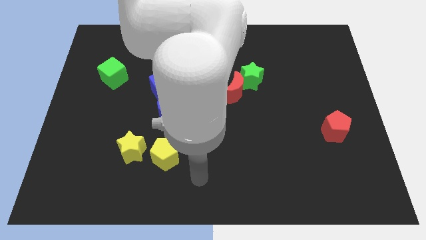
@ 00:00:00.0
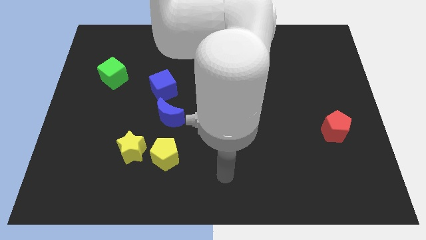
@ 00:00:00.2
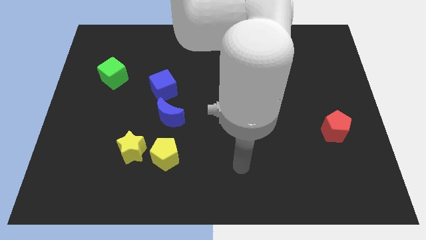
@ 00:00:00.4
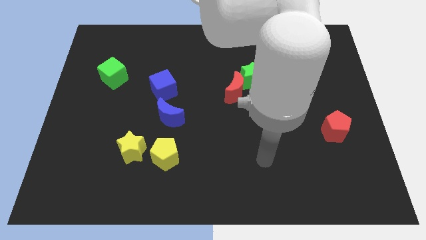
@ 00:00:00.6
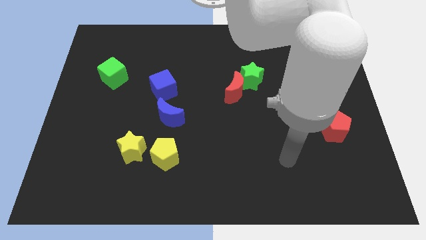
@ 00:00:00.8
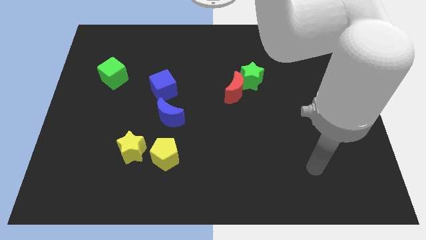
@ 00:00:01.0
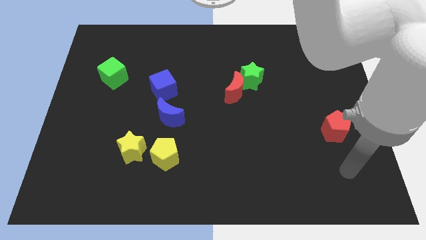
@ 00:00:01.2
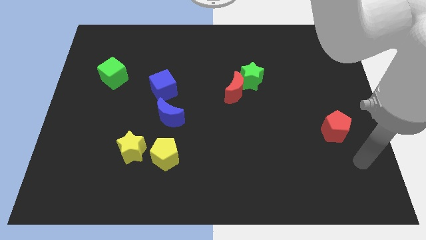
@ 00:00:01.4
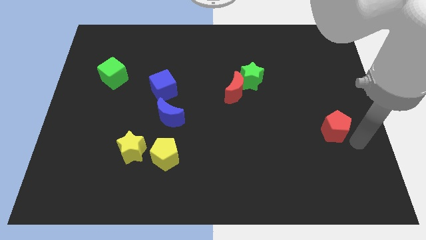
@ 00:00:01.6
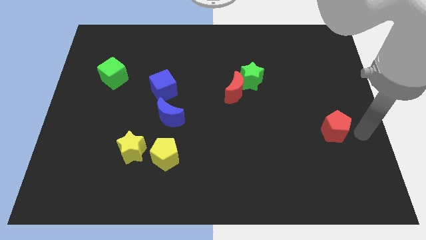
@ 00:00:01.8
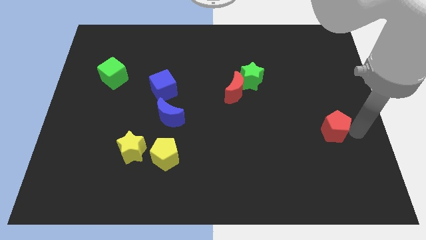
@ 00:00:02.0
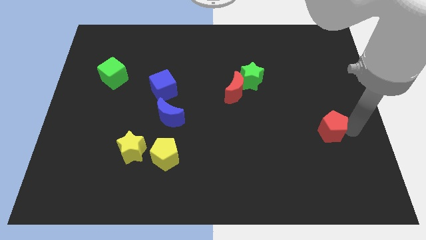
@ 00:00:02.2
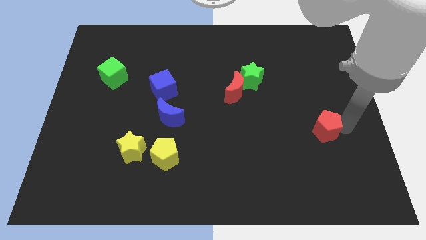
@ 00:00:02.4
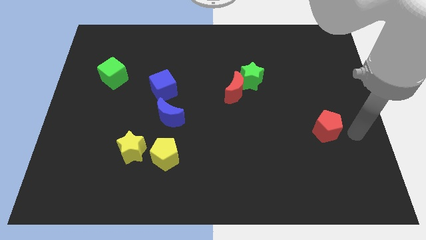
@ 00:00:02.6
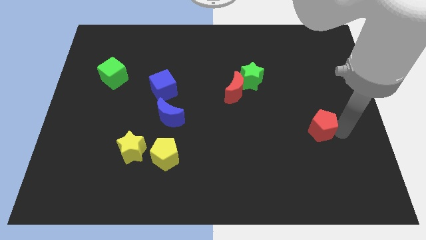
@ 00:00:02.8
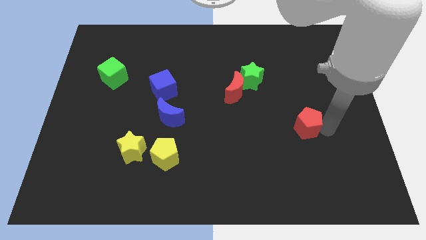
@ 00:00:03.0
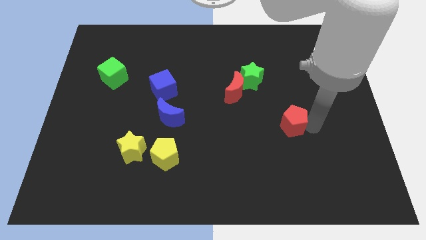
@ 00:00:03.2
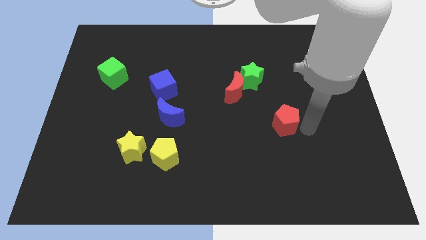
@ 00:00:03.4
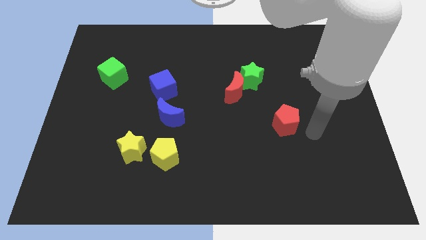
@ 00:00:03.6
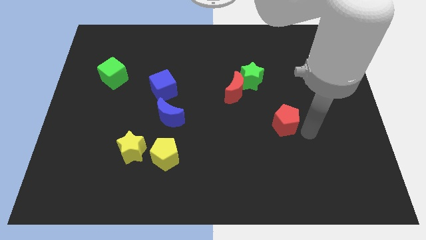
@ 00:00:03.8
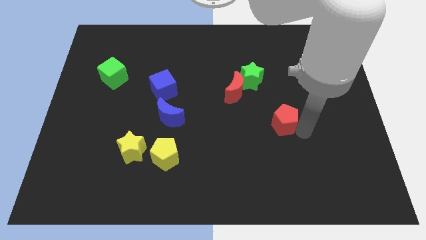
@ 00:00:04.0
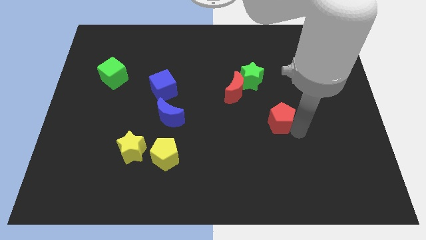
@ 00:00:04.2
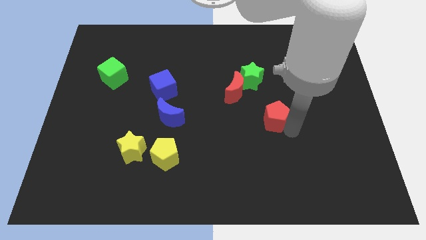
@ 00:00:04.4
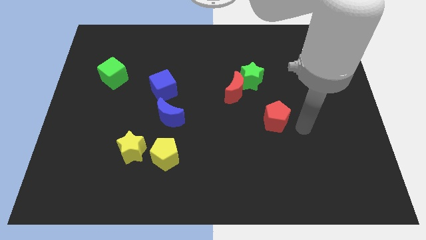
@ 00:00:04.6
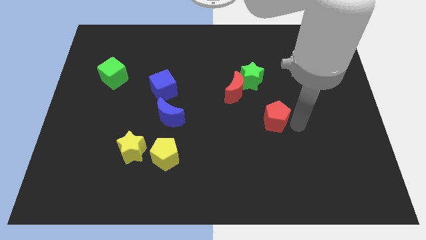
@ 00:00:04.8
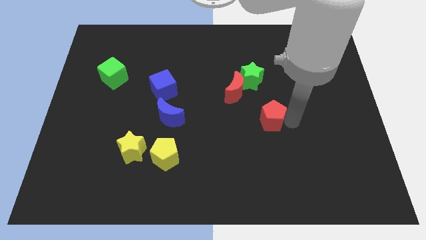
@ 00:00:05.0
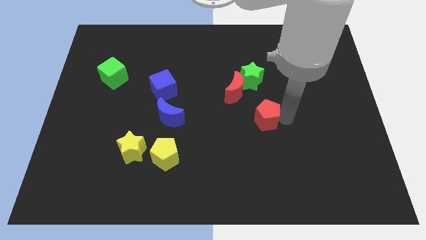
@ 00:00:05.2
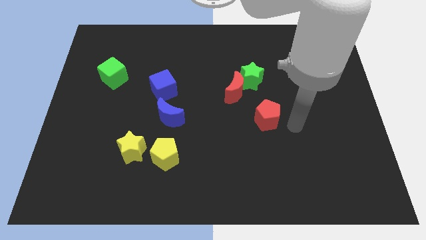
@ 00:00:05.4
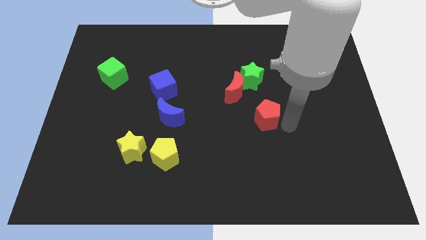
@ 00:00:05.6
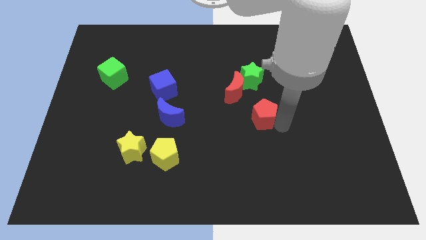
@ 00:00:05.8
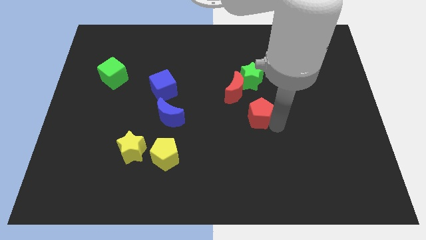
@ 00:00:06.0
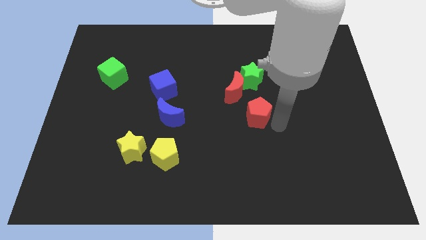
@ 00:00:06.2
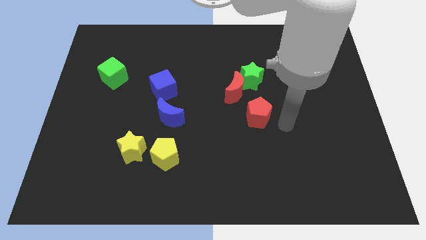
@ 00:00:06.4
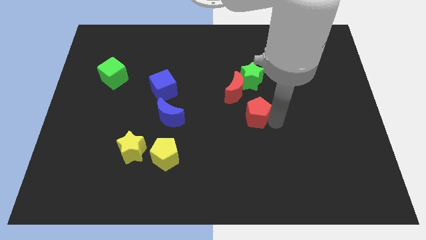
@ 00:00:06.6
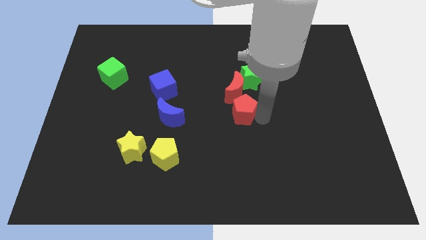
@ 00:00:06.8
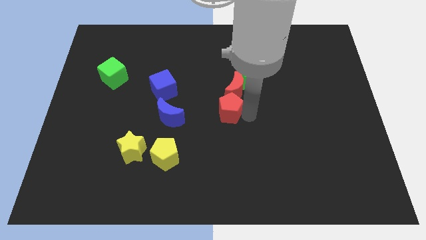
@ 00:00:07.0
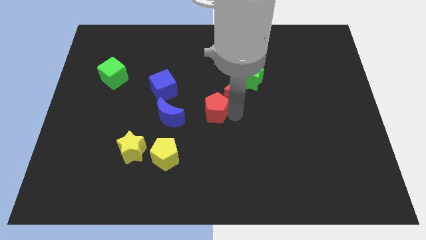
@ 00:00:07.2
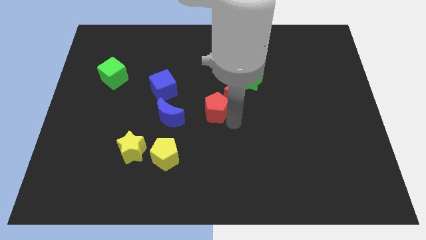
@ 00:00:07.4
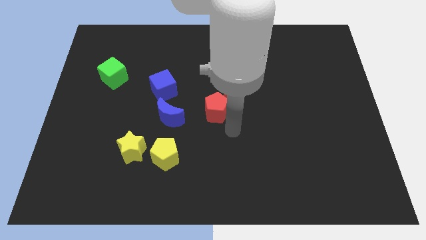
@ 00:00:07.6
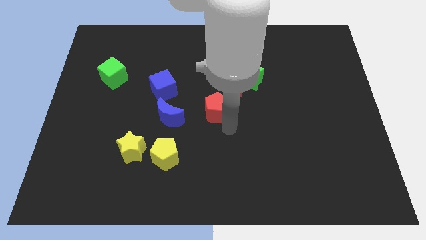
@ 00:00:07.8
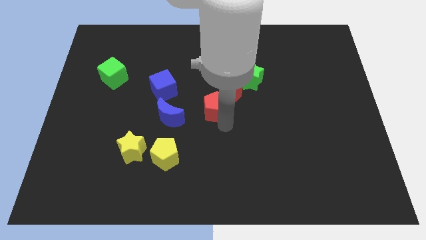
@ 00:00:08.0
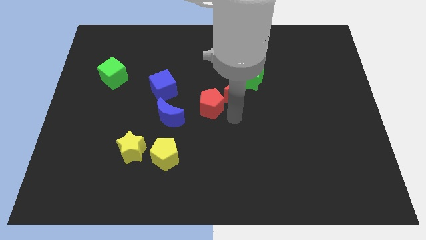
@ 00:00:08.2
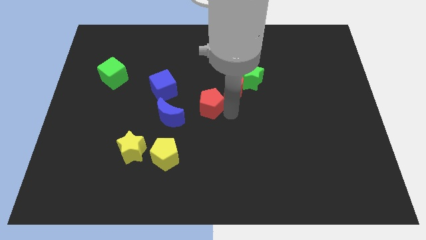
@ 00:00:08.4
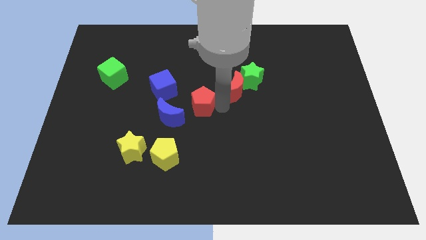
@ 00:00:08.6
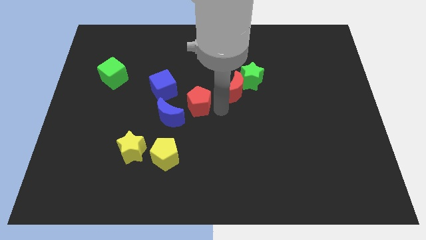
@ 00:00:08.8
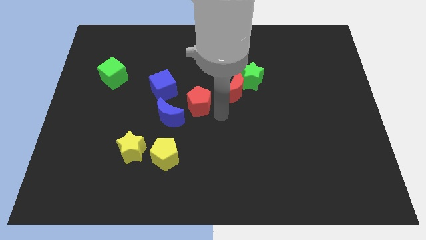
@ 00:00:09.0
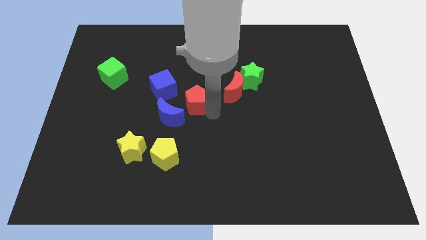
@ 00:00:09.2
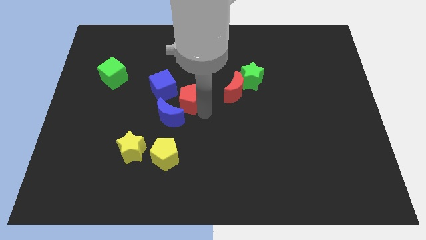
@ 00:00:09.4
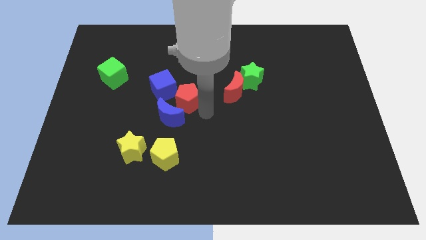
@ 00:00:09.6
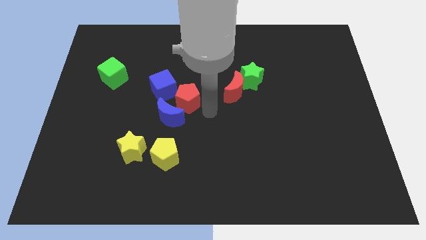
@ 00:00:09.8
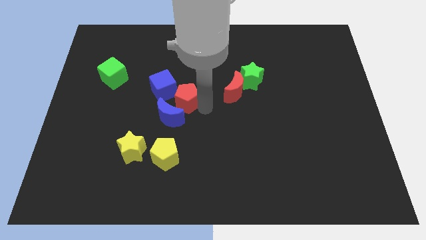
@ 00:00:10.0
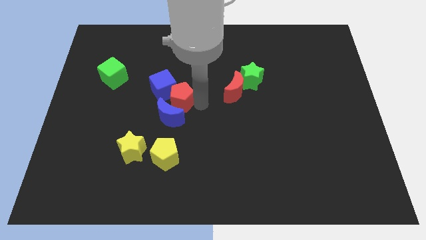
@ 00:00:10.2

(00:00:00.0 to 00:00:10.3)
push the red pentagon towards the blue cube

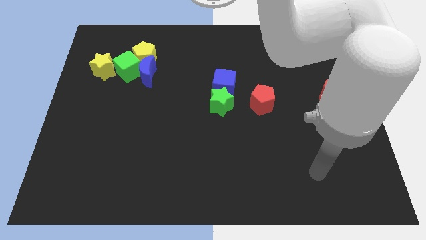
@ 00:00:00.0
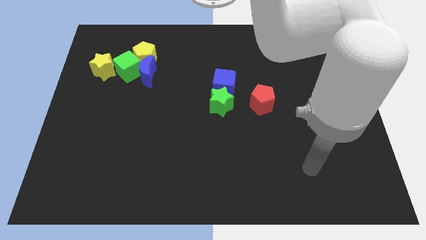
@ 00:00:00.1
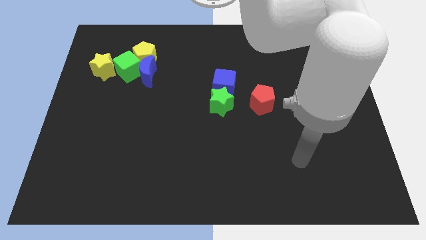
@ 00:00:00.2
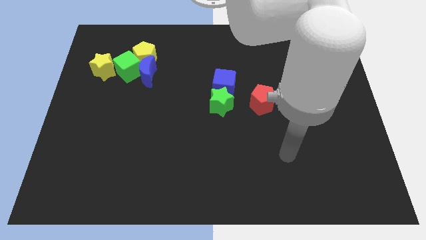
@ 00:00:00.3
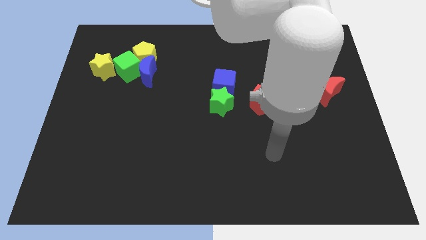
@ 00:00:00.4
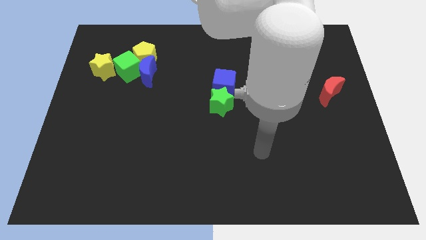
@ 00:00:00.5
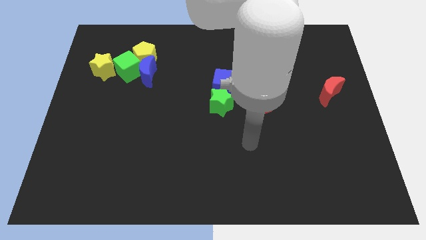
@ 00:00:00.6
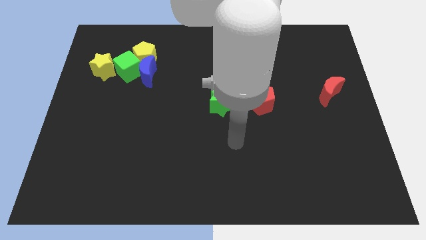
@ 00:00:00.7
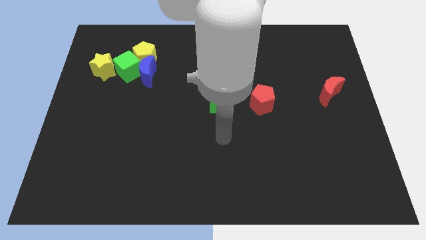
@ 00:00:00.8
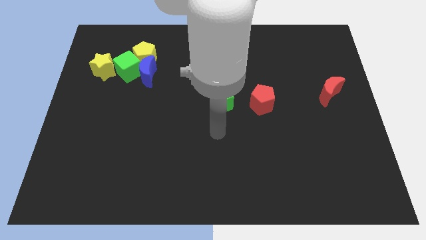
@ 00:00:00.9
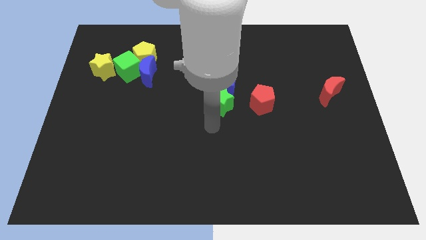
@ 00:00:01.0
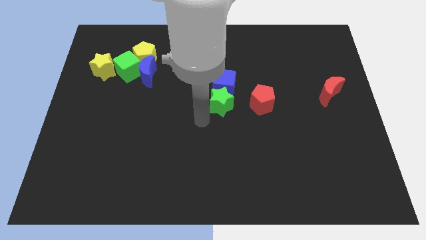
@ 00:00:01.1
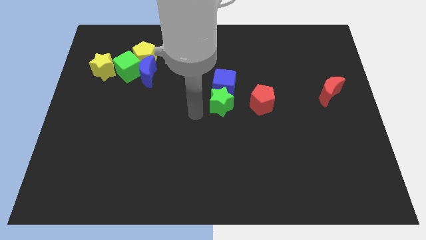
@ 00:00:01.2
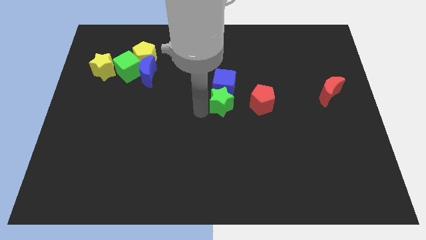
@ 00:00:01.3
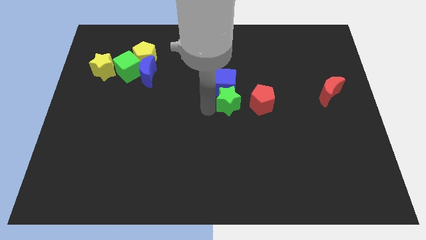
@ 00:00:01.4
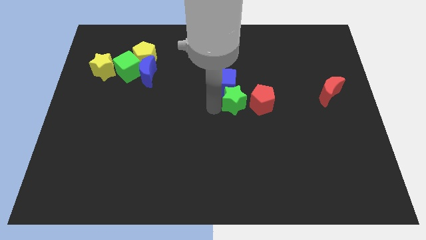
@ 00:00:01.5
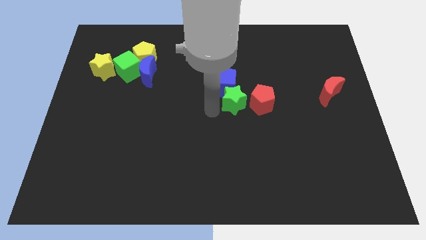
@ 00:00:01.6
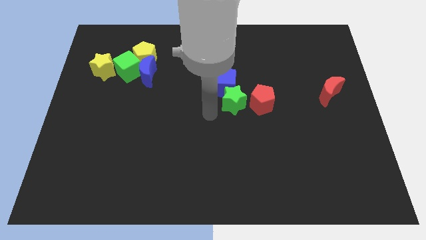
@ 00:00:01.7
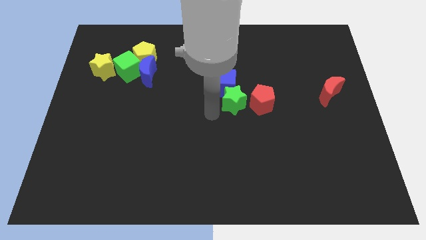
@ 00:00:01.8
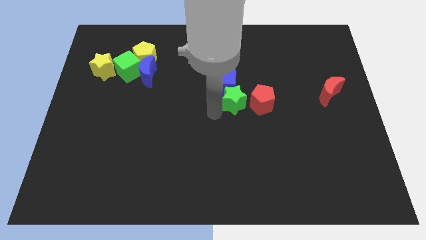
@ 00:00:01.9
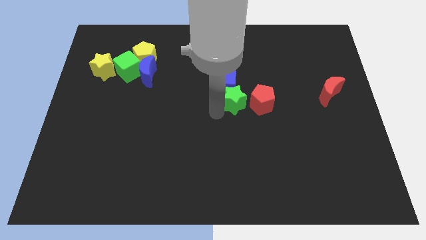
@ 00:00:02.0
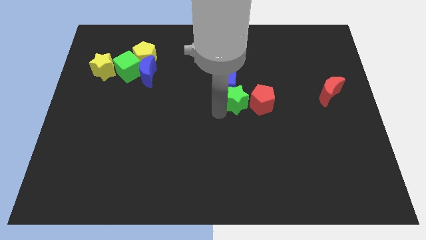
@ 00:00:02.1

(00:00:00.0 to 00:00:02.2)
push the green star close to the red pentagon
